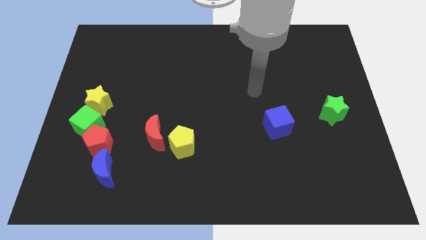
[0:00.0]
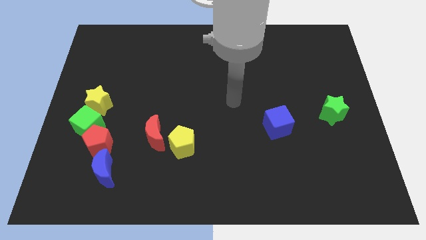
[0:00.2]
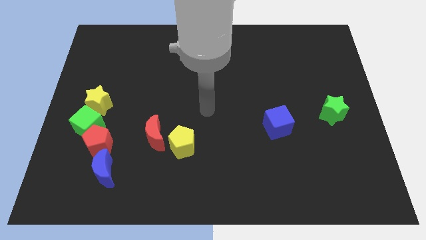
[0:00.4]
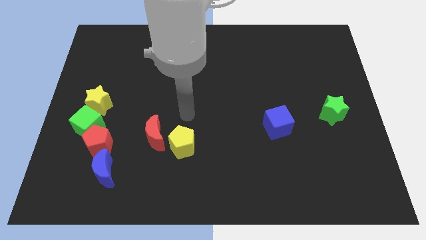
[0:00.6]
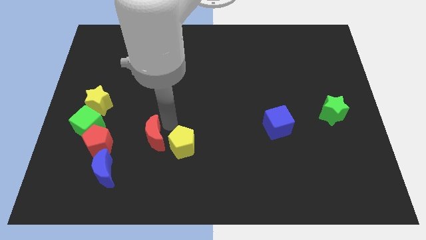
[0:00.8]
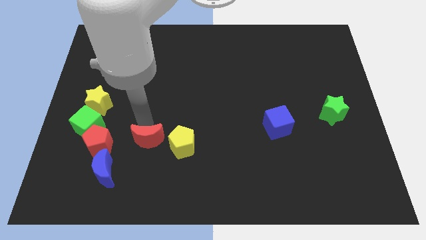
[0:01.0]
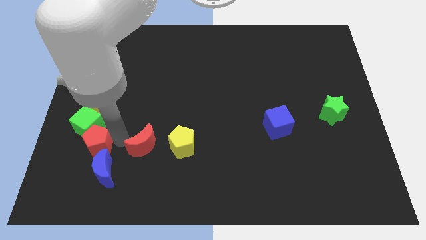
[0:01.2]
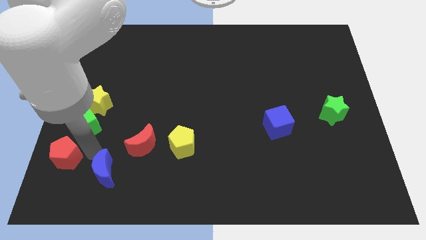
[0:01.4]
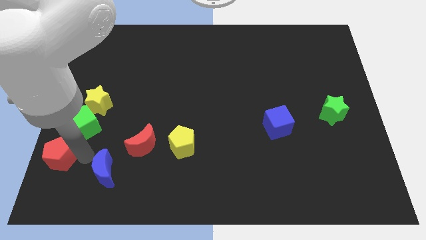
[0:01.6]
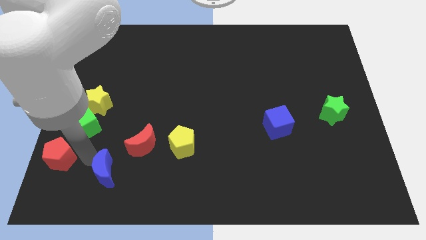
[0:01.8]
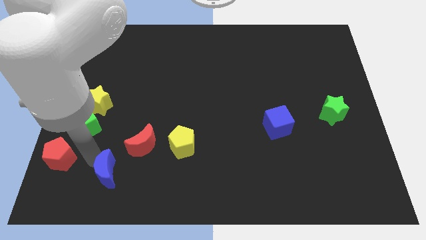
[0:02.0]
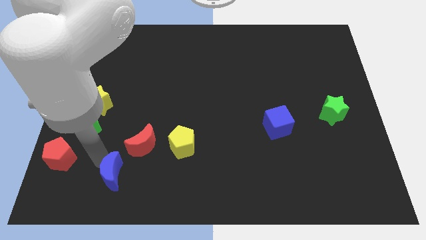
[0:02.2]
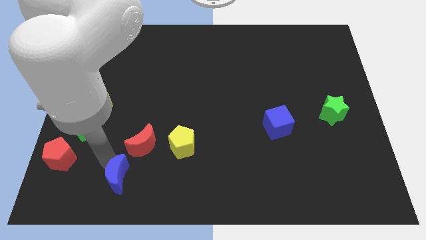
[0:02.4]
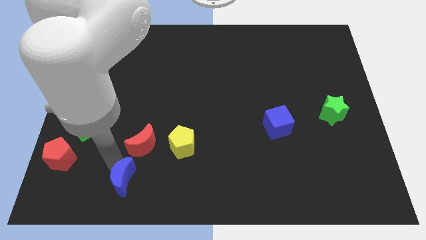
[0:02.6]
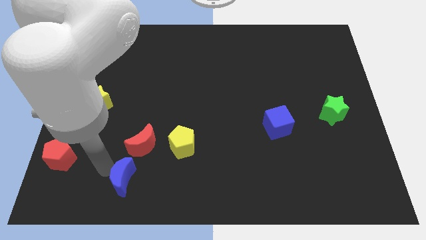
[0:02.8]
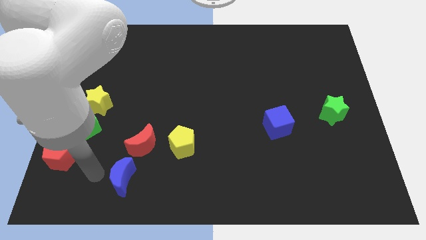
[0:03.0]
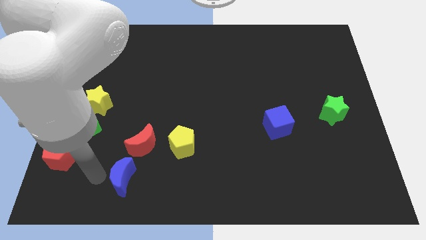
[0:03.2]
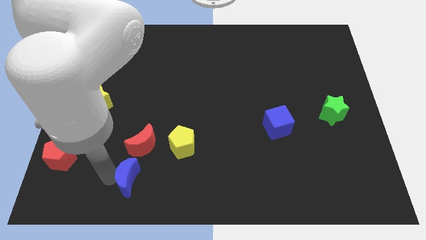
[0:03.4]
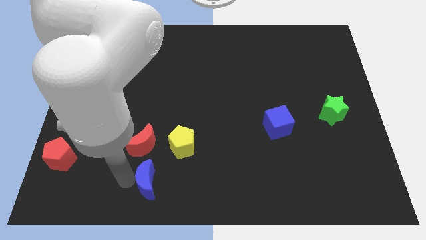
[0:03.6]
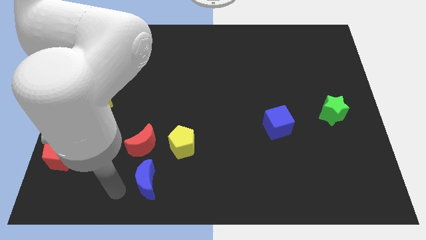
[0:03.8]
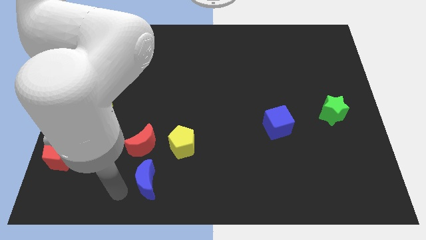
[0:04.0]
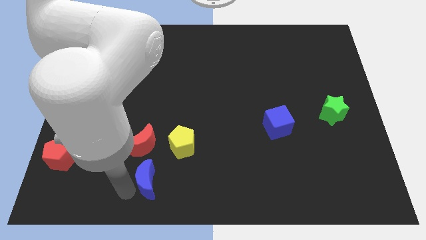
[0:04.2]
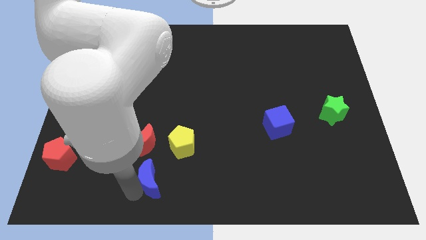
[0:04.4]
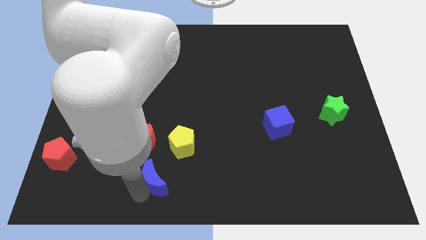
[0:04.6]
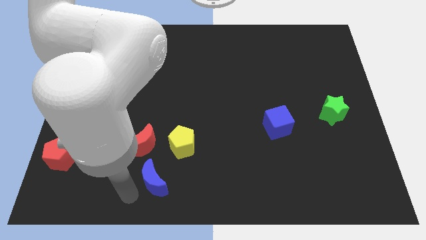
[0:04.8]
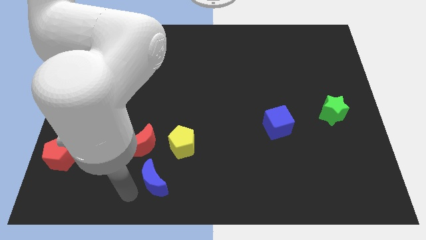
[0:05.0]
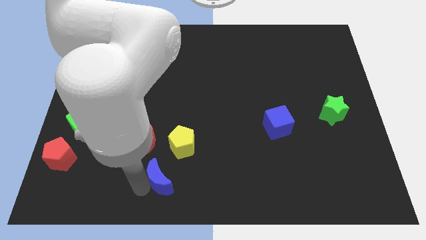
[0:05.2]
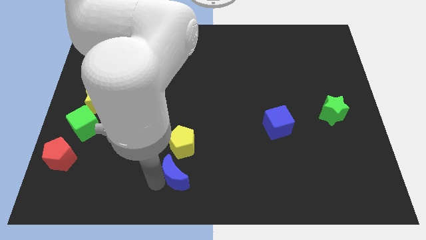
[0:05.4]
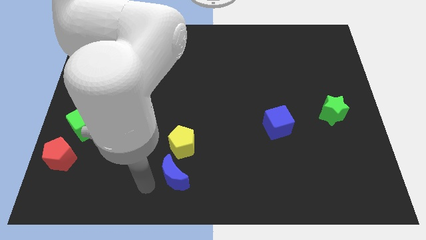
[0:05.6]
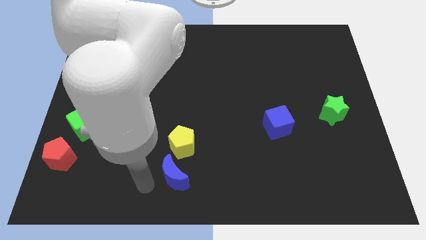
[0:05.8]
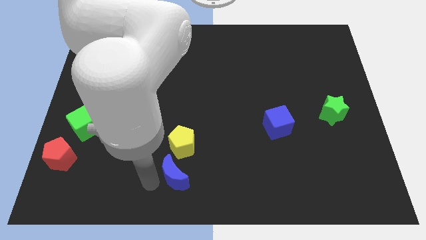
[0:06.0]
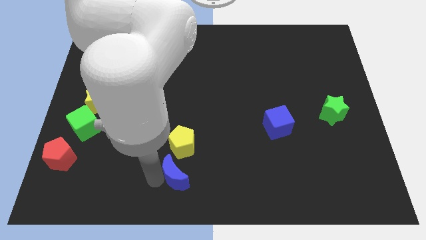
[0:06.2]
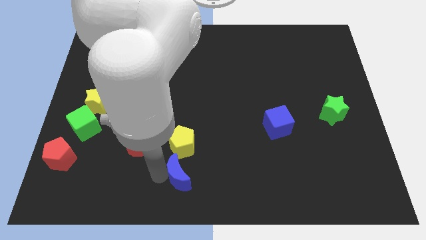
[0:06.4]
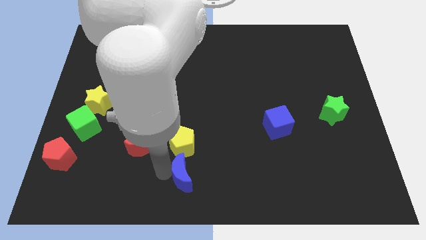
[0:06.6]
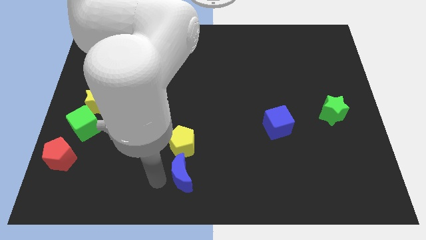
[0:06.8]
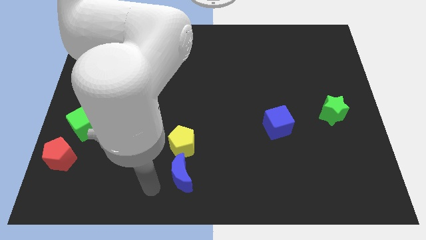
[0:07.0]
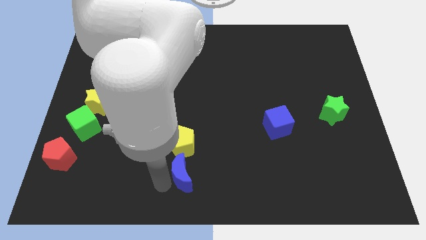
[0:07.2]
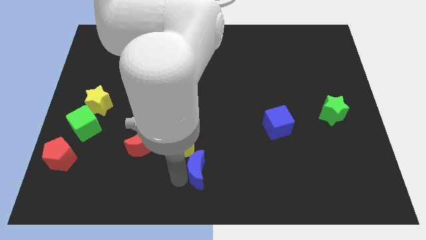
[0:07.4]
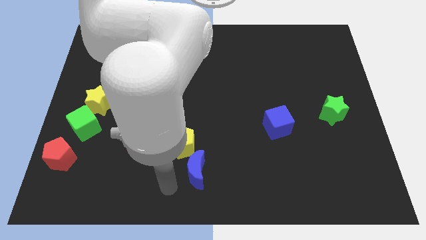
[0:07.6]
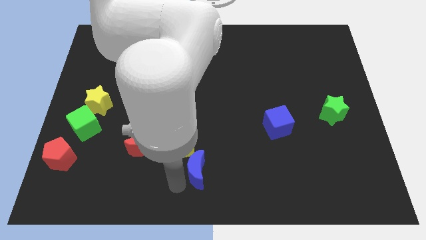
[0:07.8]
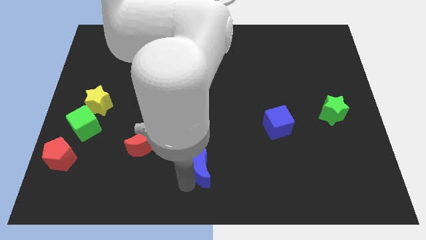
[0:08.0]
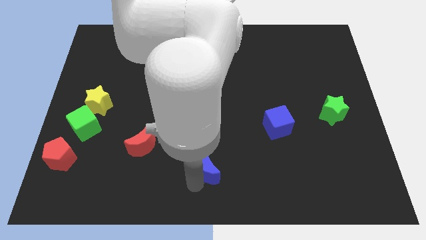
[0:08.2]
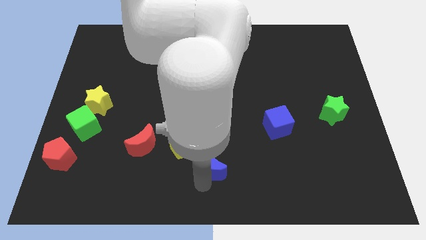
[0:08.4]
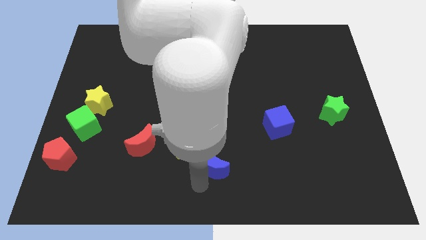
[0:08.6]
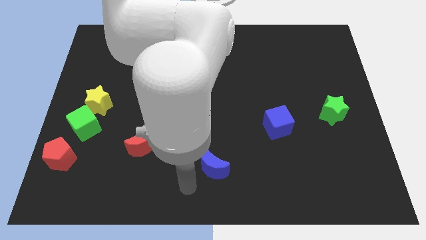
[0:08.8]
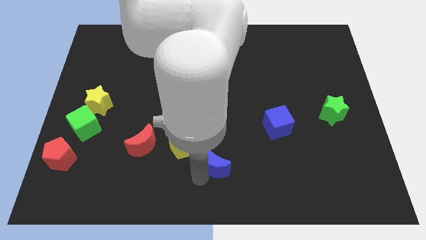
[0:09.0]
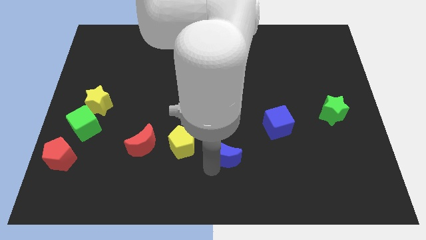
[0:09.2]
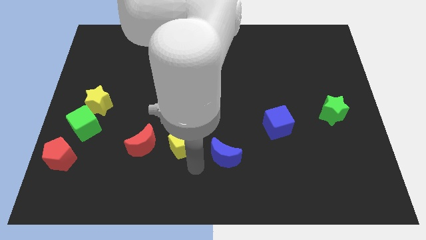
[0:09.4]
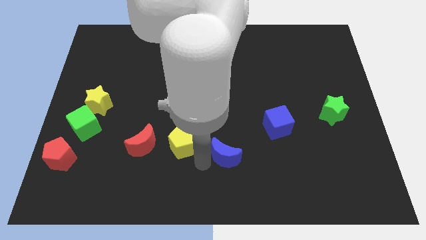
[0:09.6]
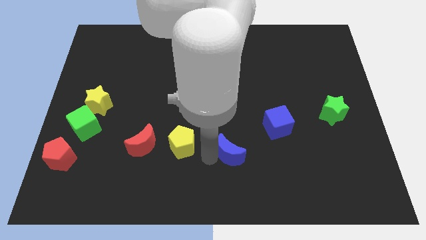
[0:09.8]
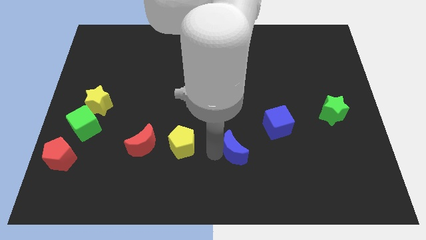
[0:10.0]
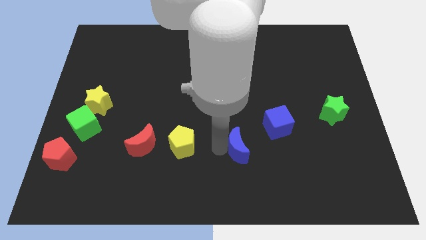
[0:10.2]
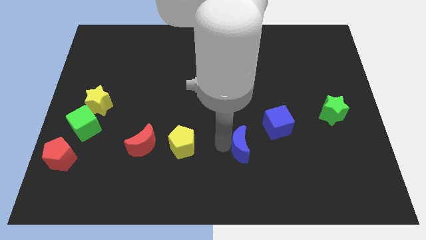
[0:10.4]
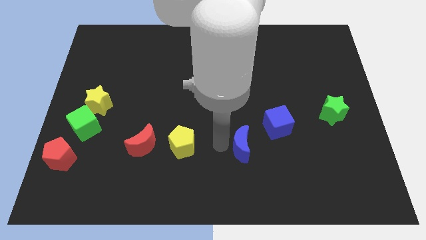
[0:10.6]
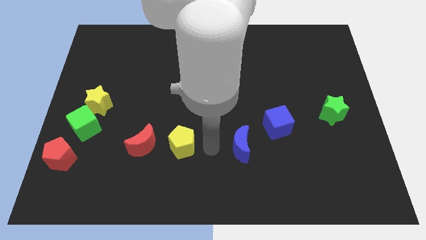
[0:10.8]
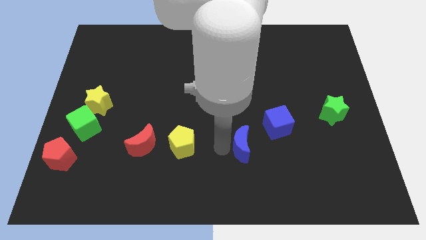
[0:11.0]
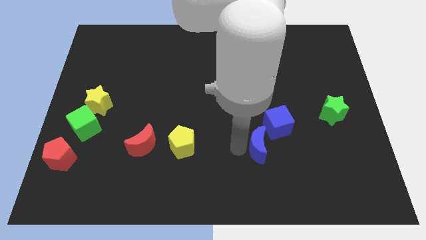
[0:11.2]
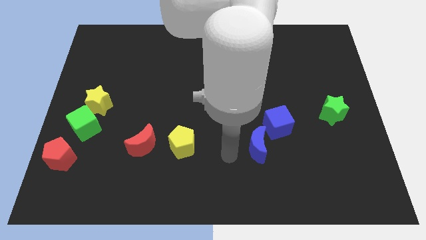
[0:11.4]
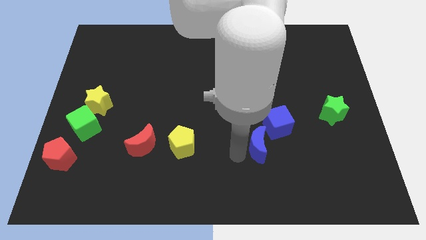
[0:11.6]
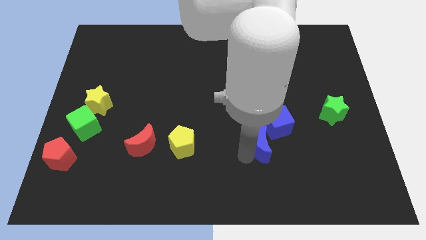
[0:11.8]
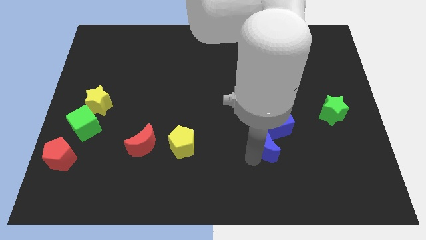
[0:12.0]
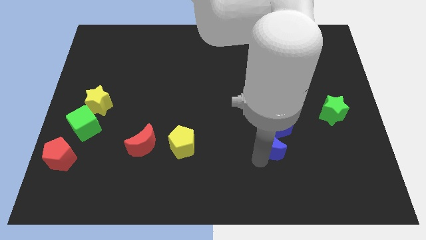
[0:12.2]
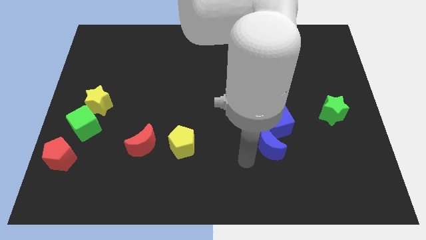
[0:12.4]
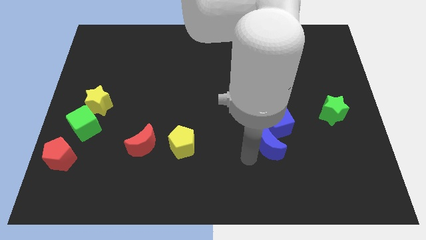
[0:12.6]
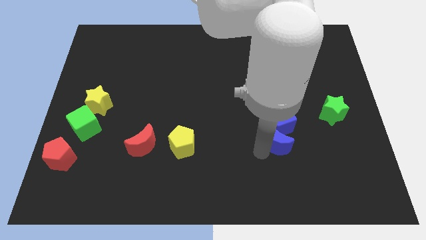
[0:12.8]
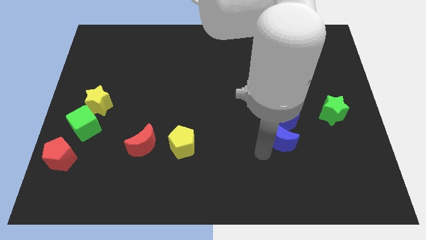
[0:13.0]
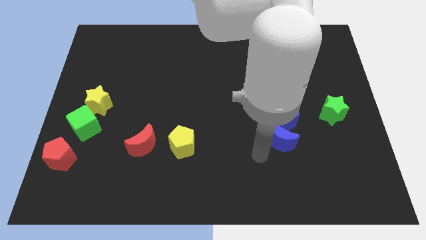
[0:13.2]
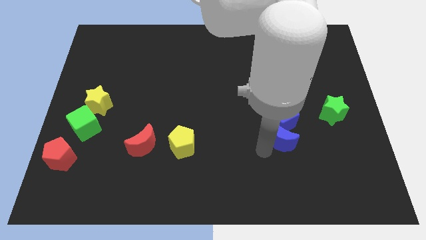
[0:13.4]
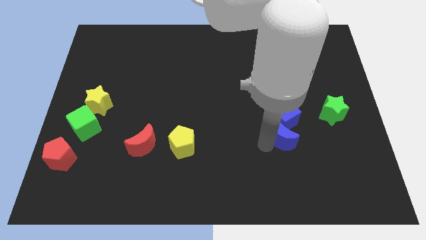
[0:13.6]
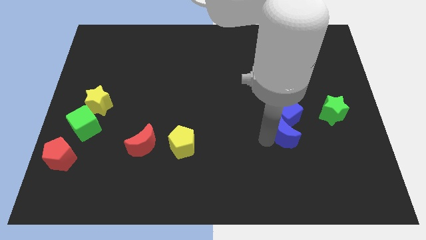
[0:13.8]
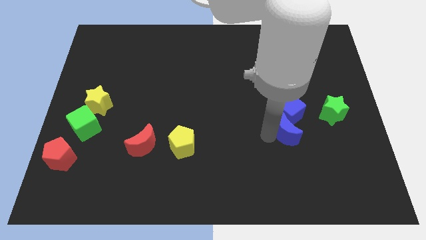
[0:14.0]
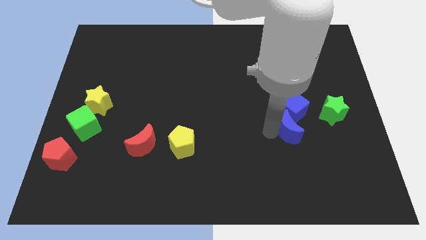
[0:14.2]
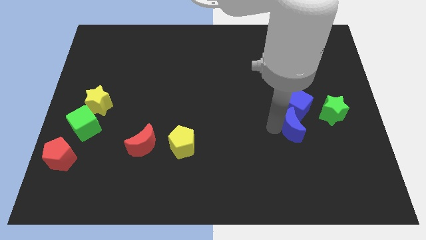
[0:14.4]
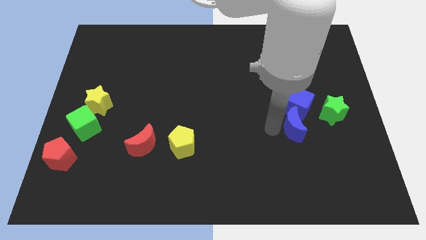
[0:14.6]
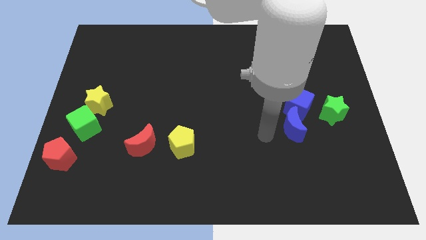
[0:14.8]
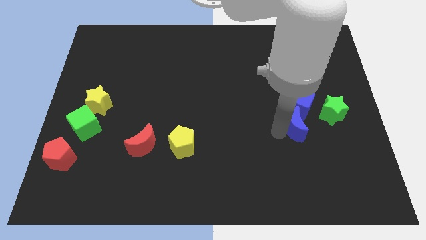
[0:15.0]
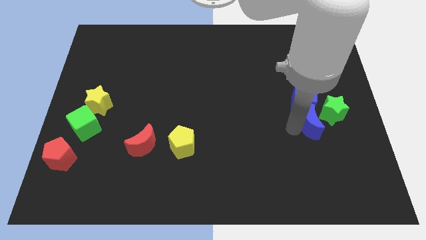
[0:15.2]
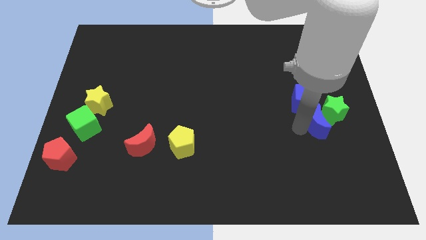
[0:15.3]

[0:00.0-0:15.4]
slide the blue moon next to the green star
